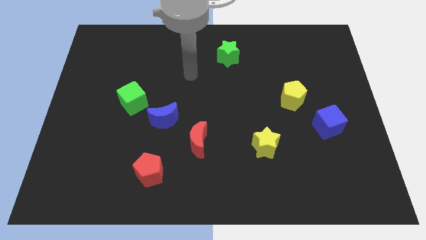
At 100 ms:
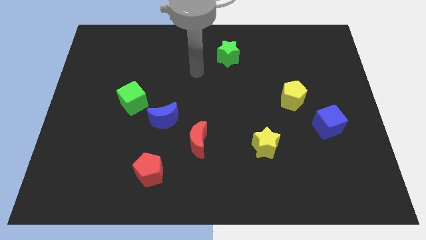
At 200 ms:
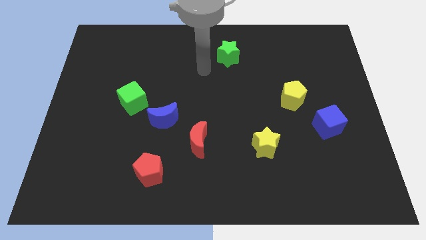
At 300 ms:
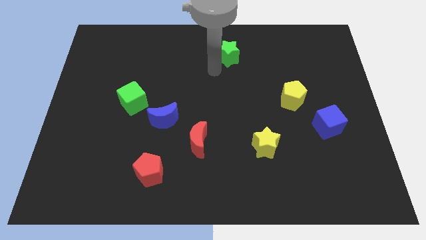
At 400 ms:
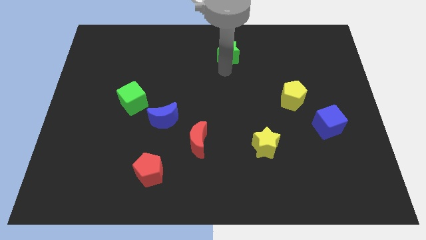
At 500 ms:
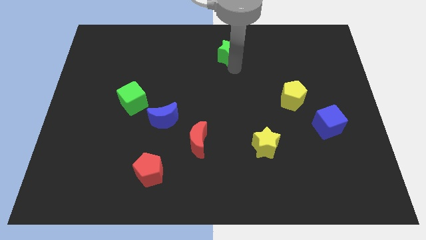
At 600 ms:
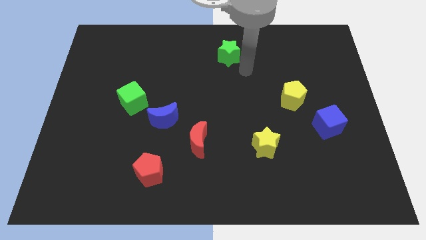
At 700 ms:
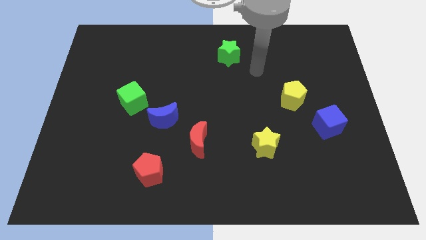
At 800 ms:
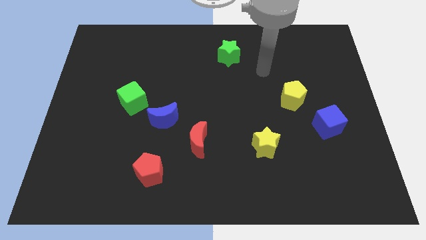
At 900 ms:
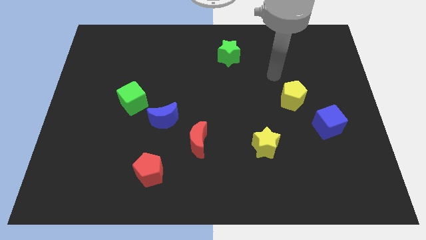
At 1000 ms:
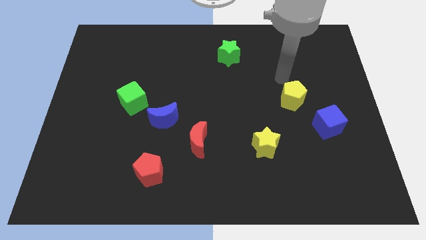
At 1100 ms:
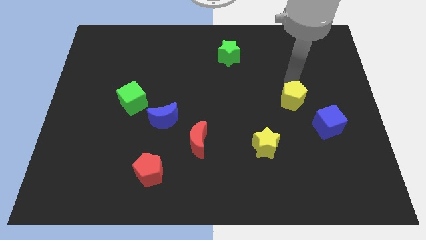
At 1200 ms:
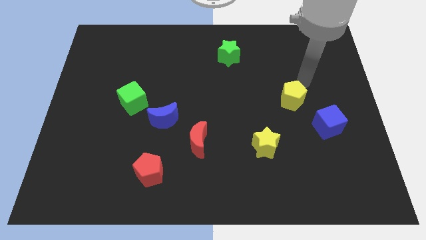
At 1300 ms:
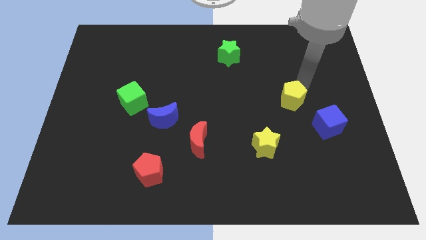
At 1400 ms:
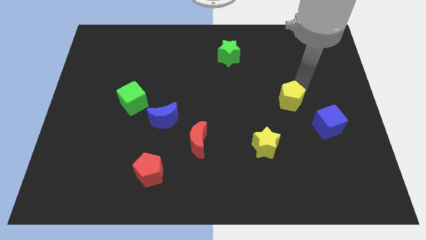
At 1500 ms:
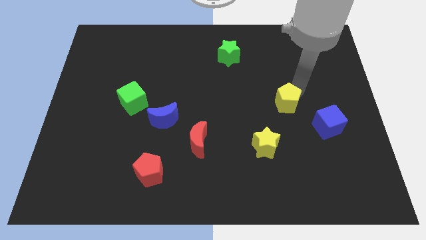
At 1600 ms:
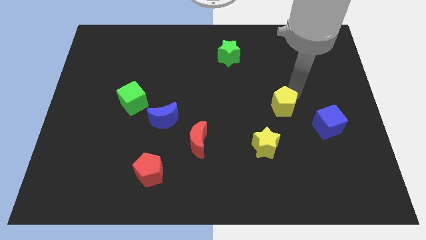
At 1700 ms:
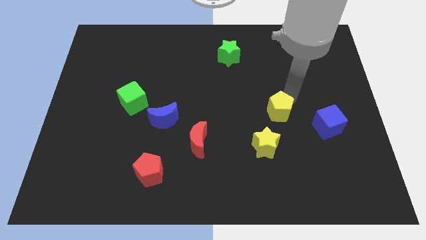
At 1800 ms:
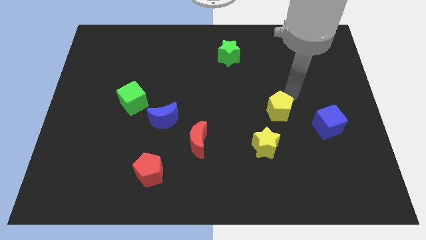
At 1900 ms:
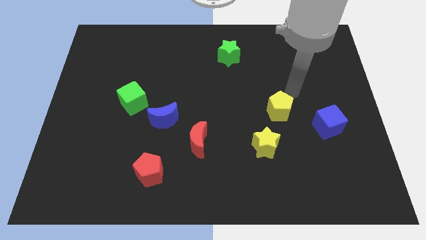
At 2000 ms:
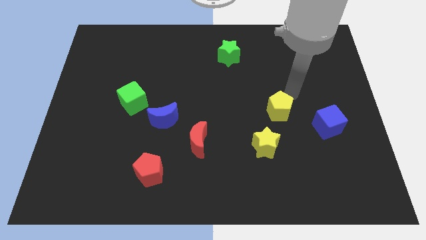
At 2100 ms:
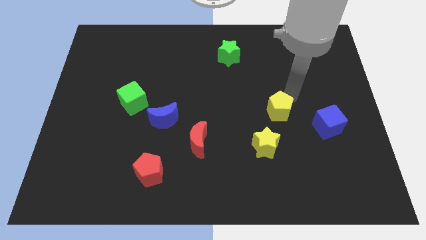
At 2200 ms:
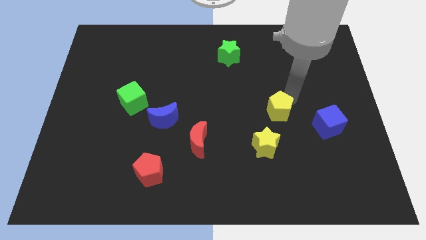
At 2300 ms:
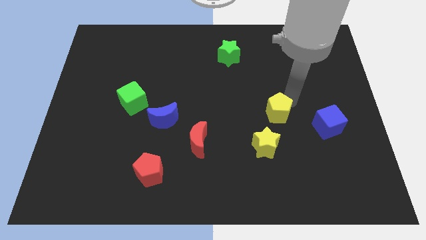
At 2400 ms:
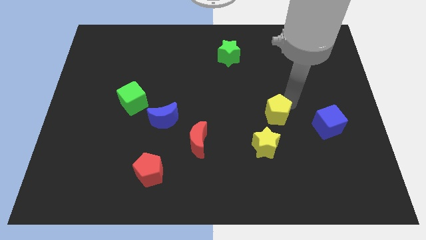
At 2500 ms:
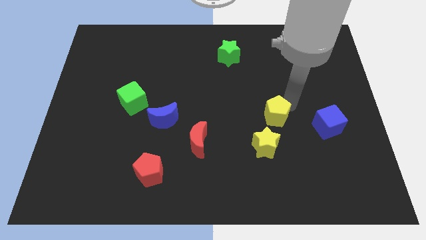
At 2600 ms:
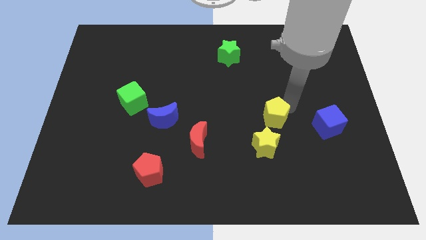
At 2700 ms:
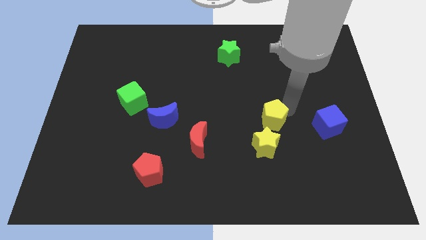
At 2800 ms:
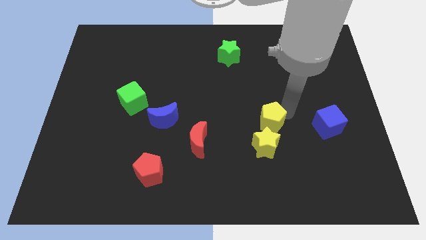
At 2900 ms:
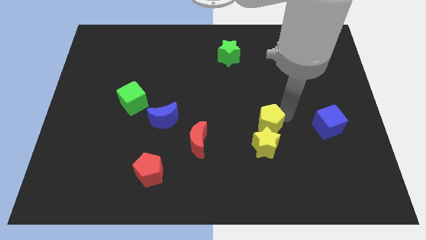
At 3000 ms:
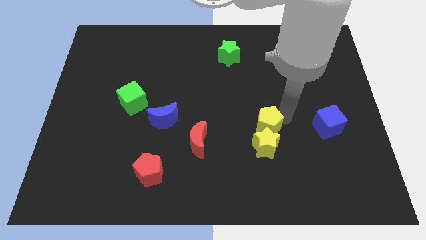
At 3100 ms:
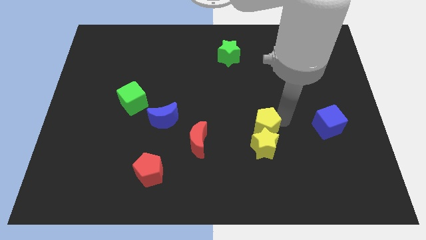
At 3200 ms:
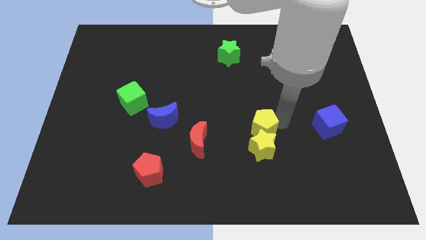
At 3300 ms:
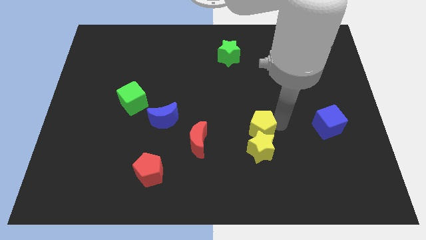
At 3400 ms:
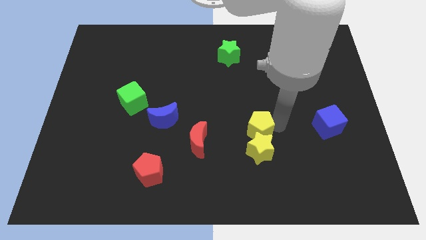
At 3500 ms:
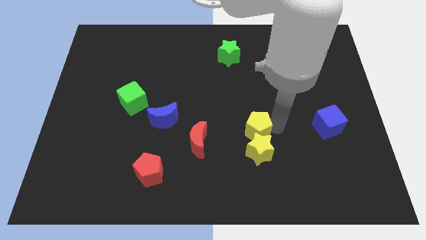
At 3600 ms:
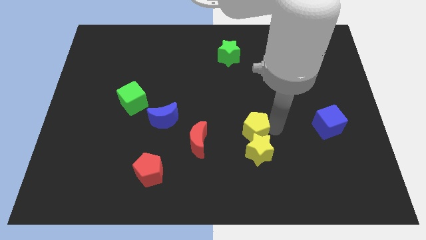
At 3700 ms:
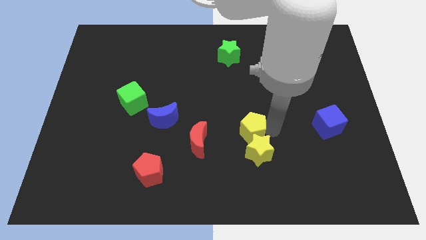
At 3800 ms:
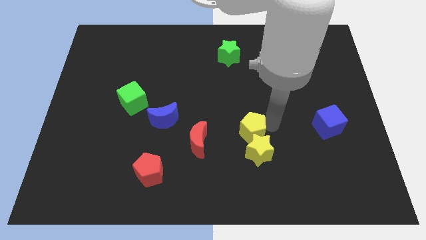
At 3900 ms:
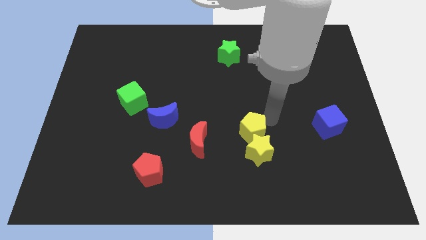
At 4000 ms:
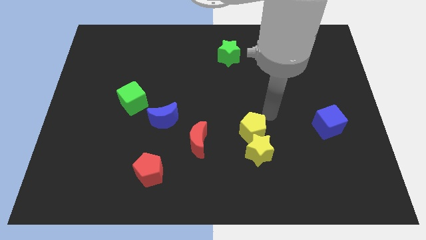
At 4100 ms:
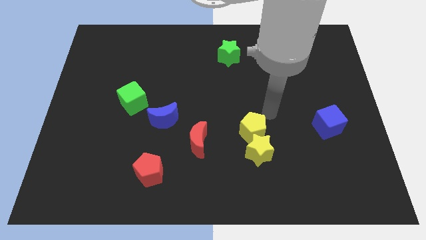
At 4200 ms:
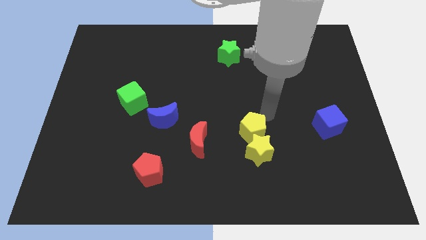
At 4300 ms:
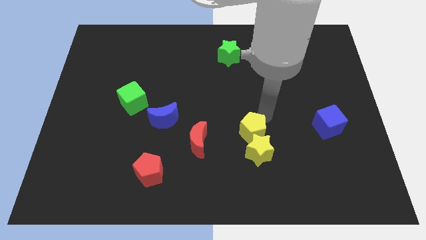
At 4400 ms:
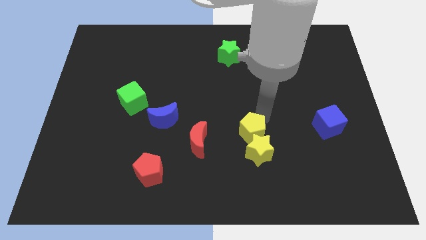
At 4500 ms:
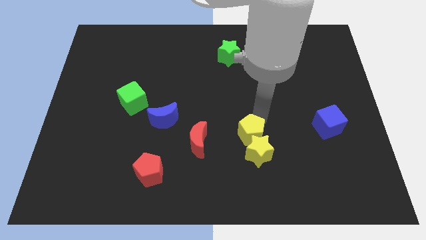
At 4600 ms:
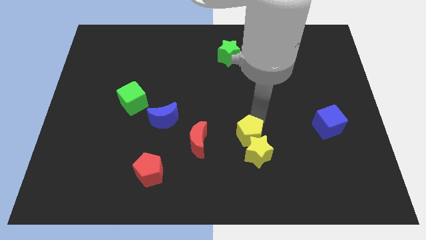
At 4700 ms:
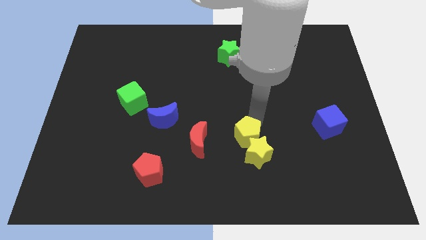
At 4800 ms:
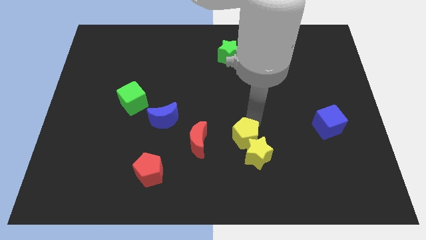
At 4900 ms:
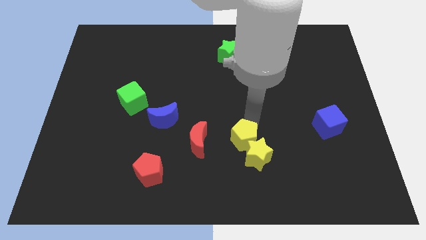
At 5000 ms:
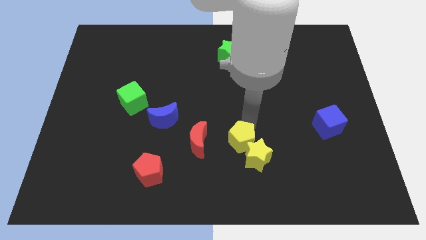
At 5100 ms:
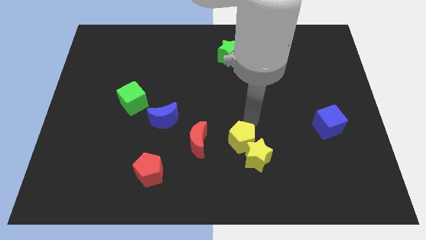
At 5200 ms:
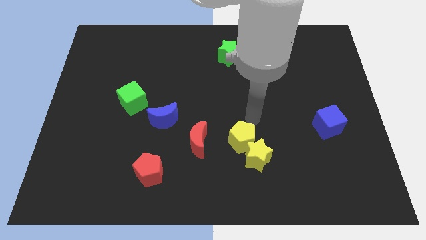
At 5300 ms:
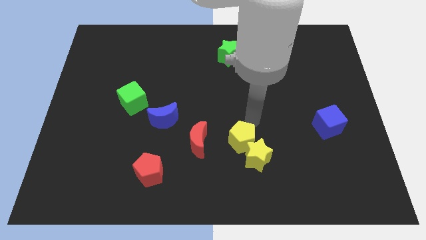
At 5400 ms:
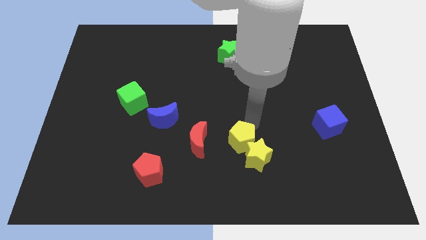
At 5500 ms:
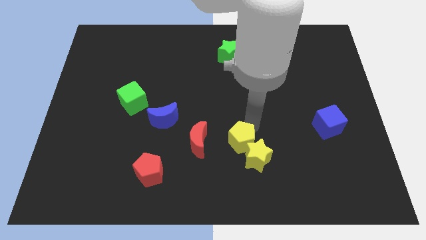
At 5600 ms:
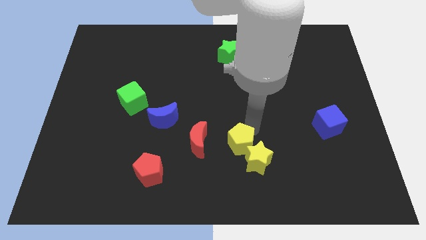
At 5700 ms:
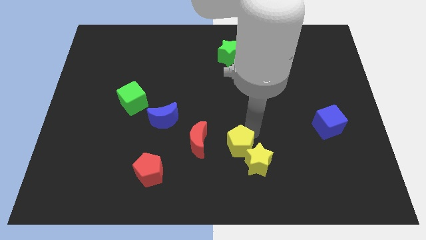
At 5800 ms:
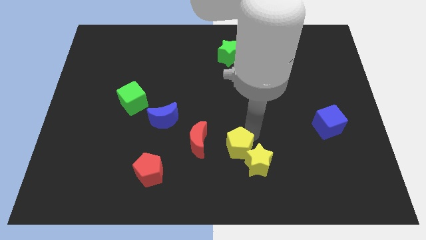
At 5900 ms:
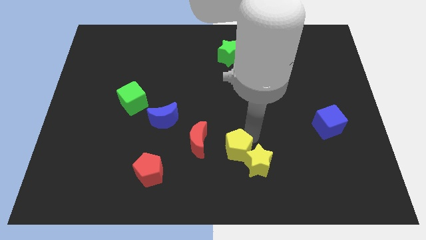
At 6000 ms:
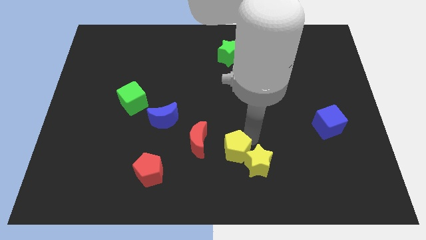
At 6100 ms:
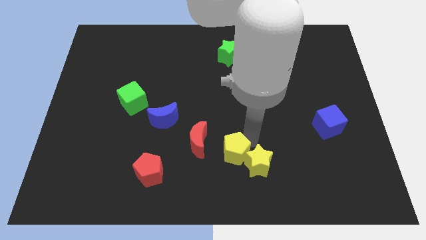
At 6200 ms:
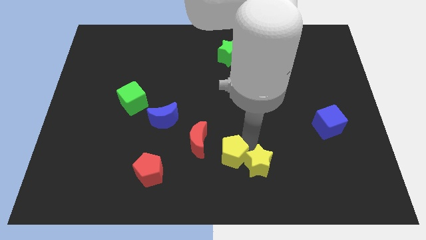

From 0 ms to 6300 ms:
move the yellow pentagon to the bottom
